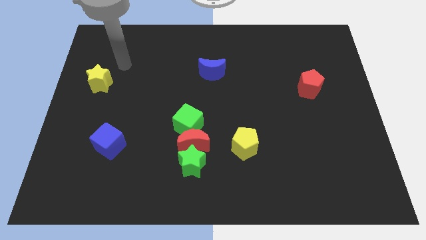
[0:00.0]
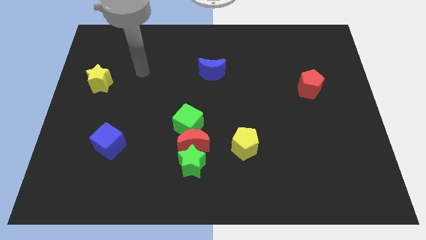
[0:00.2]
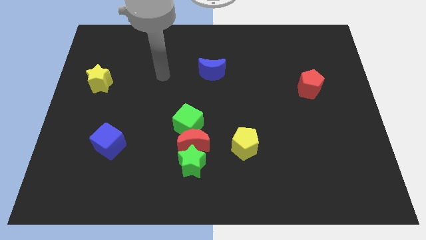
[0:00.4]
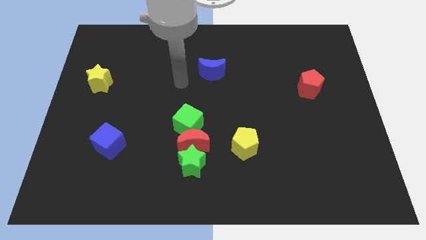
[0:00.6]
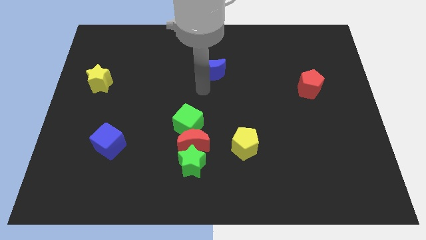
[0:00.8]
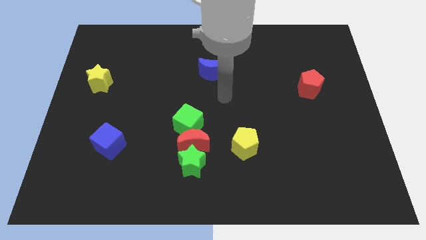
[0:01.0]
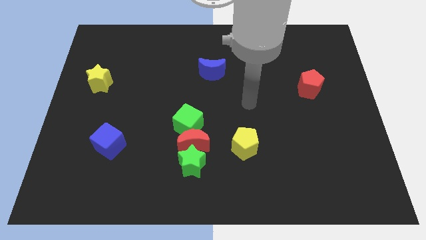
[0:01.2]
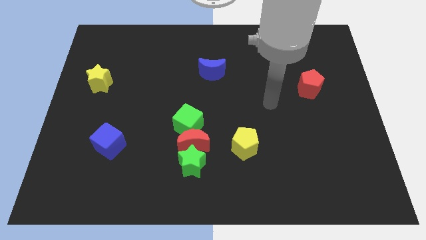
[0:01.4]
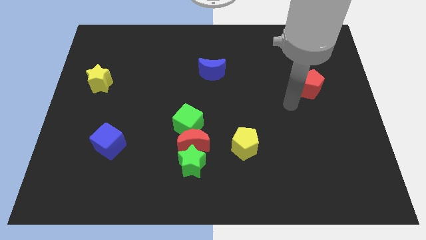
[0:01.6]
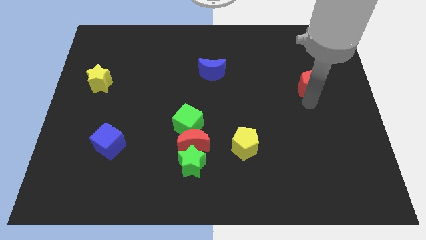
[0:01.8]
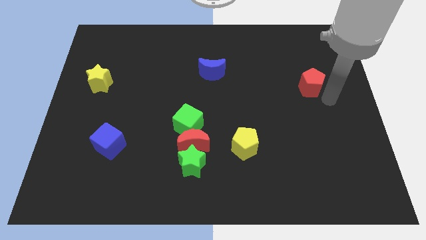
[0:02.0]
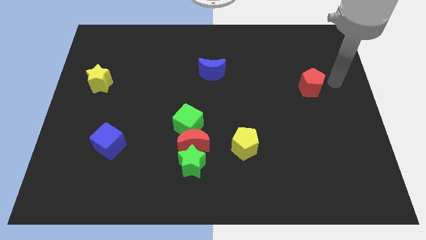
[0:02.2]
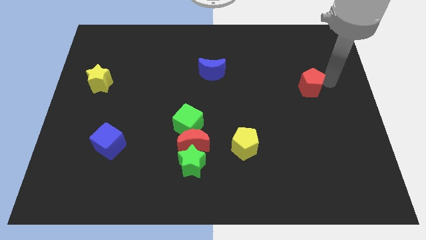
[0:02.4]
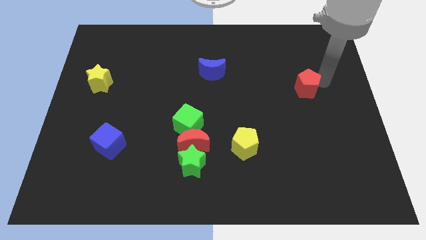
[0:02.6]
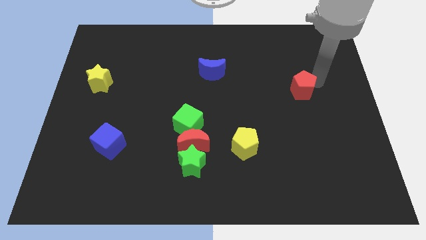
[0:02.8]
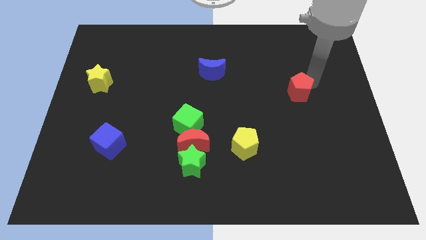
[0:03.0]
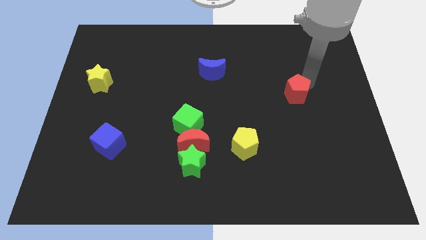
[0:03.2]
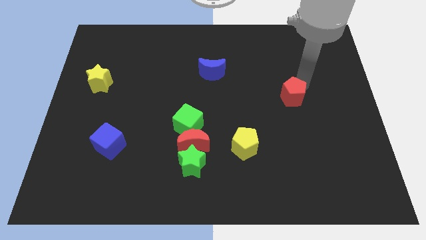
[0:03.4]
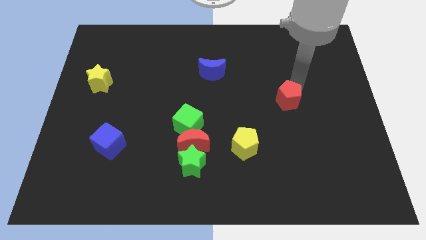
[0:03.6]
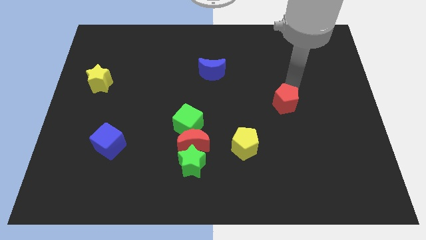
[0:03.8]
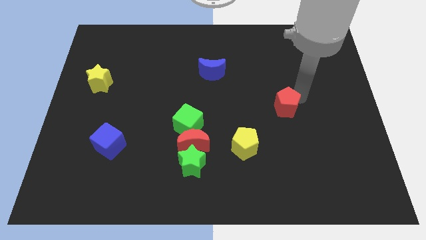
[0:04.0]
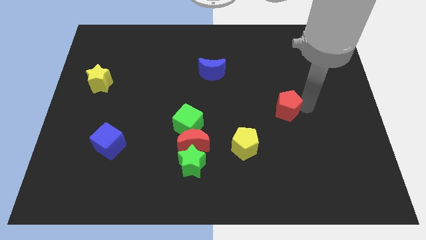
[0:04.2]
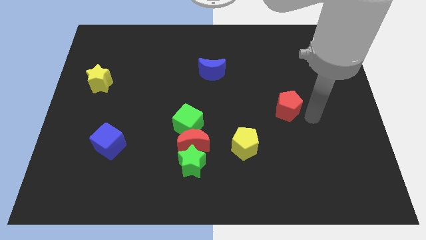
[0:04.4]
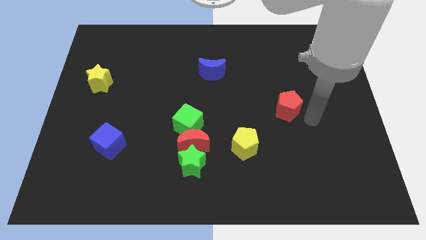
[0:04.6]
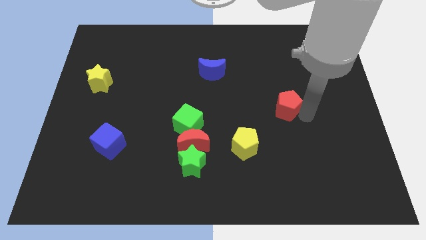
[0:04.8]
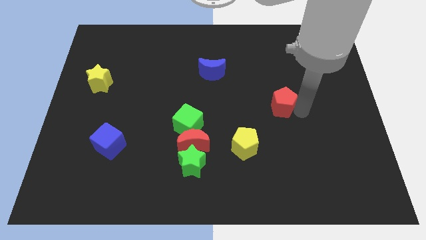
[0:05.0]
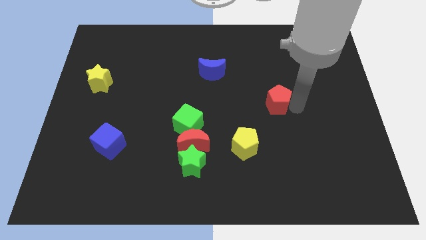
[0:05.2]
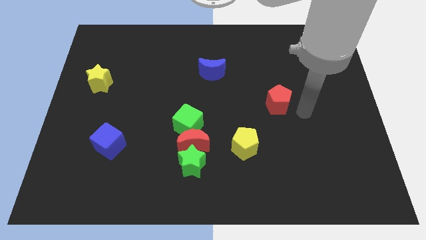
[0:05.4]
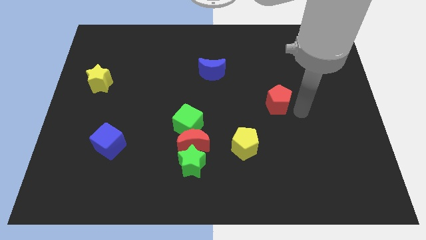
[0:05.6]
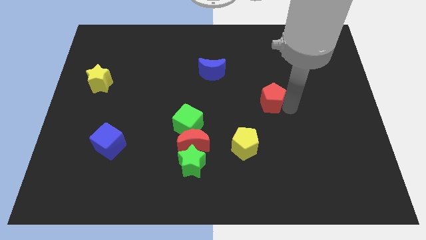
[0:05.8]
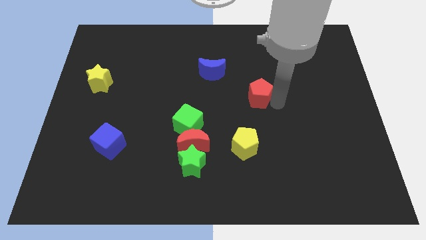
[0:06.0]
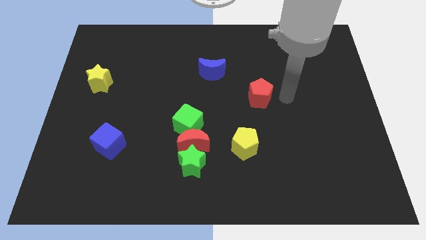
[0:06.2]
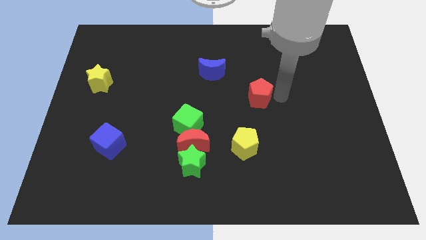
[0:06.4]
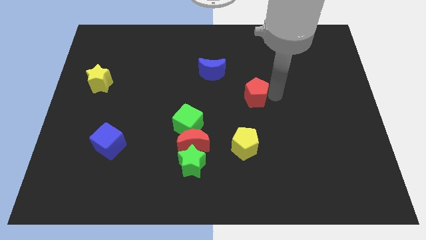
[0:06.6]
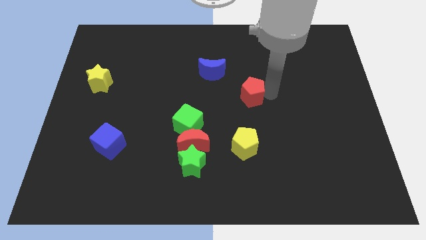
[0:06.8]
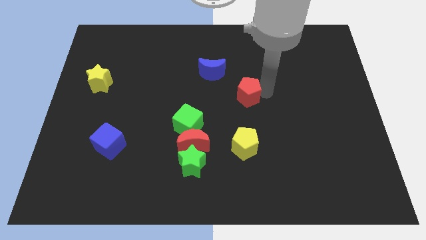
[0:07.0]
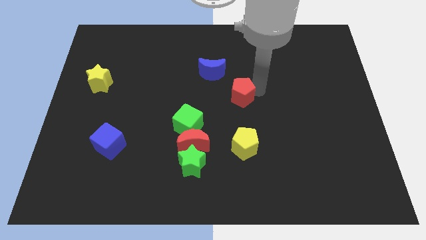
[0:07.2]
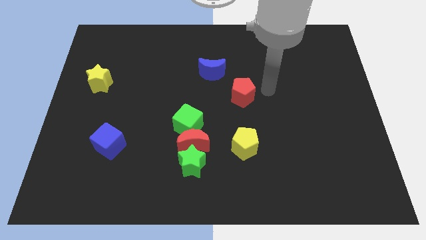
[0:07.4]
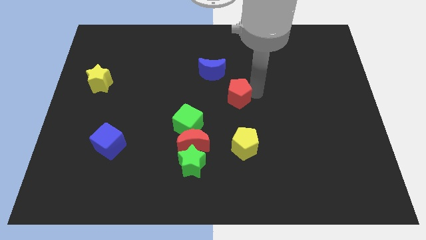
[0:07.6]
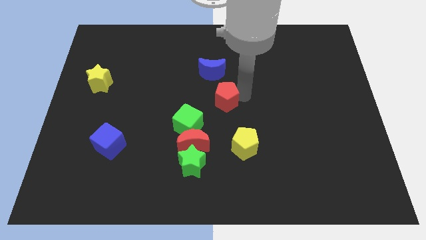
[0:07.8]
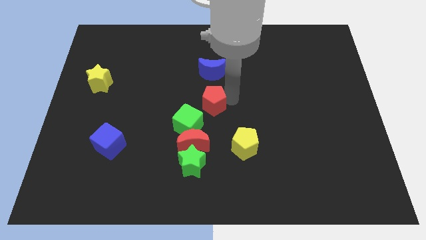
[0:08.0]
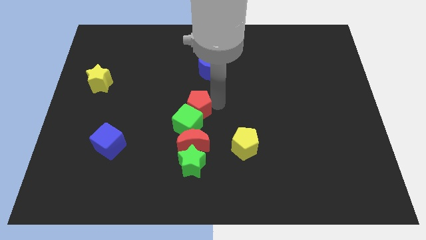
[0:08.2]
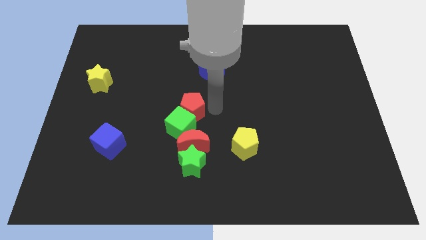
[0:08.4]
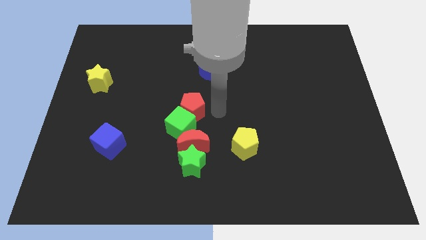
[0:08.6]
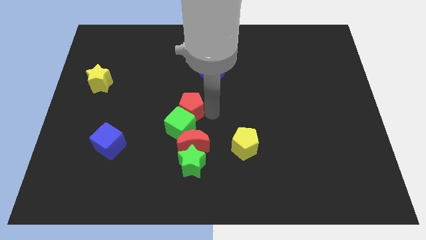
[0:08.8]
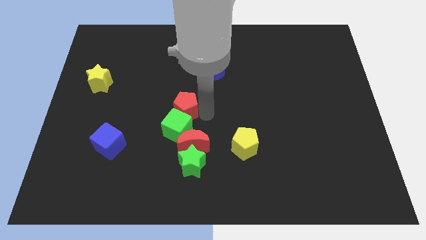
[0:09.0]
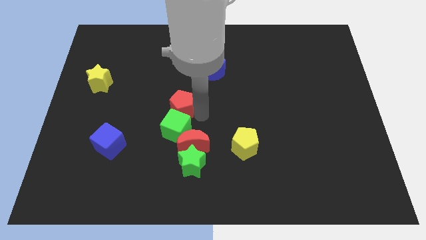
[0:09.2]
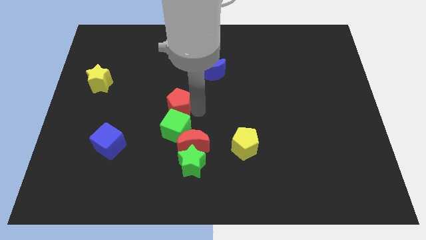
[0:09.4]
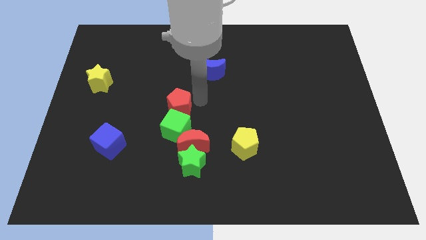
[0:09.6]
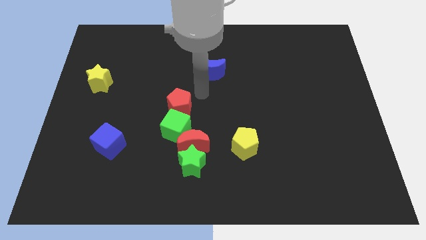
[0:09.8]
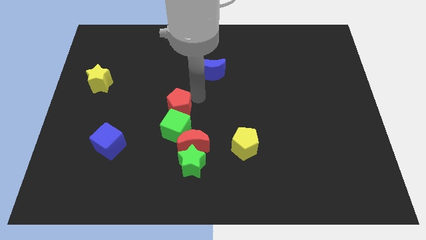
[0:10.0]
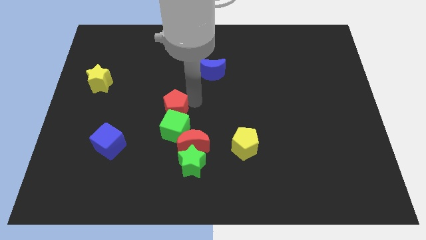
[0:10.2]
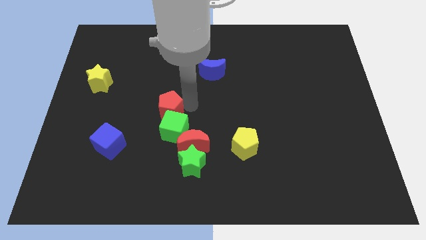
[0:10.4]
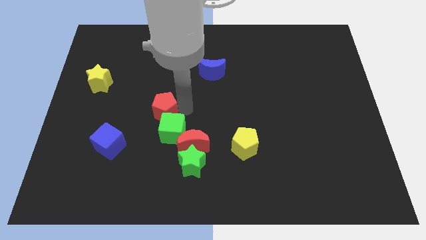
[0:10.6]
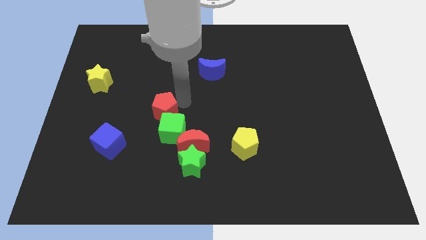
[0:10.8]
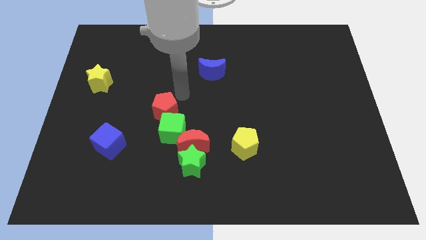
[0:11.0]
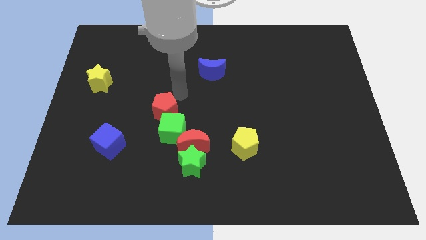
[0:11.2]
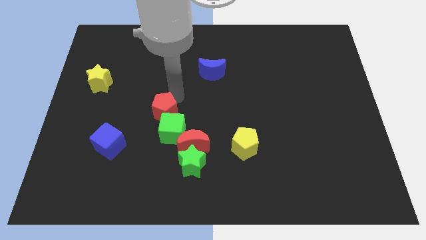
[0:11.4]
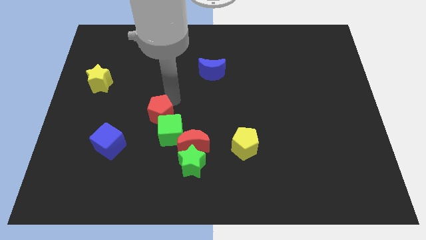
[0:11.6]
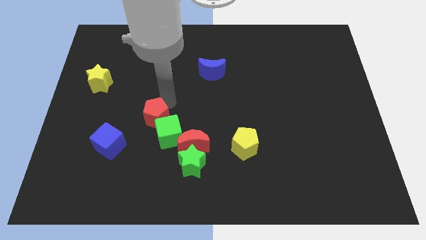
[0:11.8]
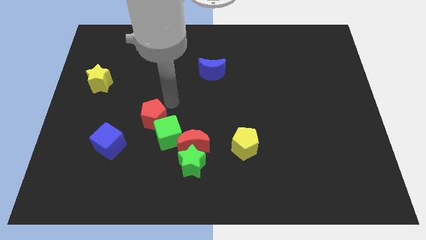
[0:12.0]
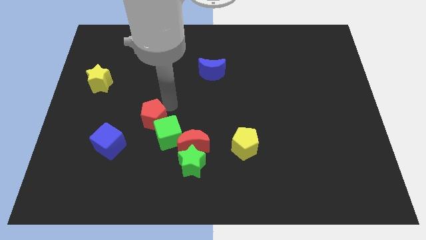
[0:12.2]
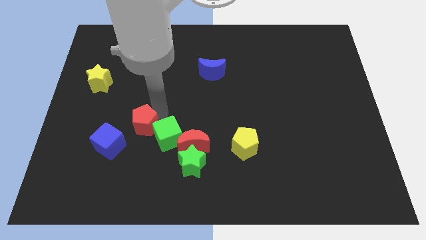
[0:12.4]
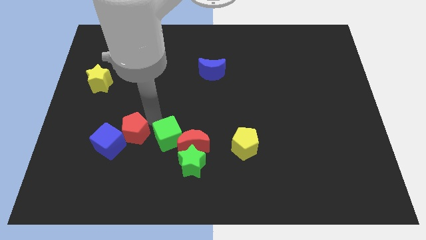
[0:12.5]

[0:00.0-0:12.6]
put the red pentagon to the blue cube

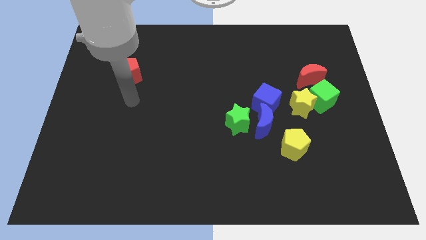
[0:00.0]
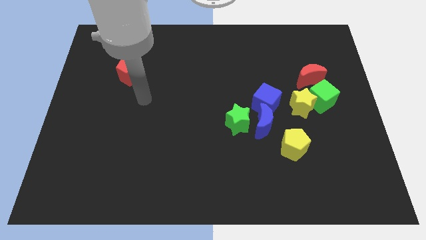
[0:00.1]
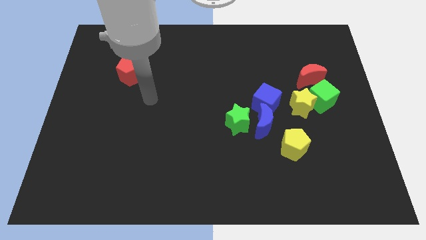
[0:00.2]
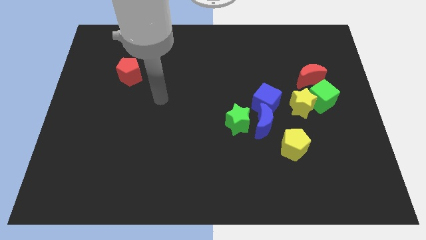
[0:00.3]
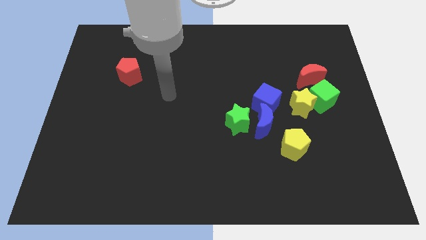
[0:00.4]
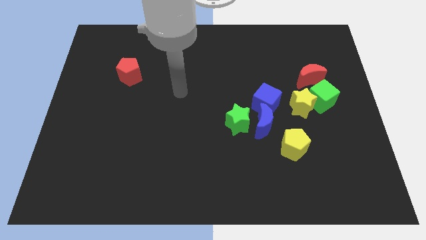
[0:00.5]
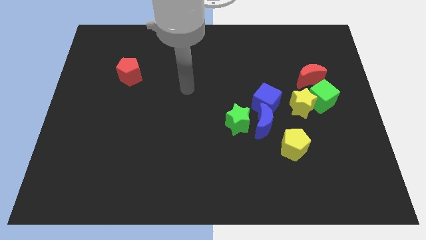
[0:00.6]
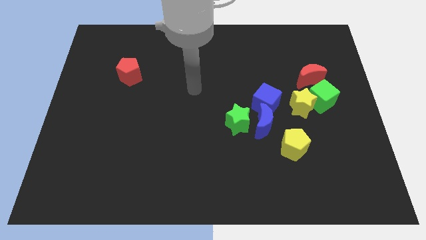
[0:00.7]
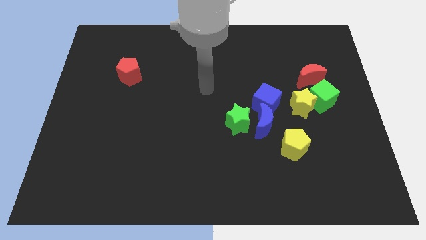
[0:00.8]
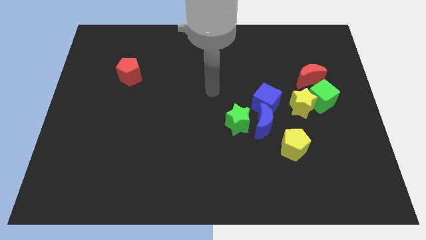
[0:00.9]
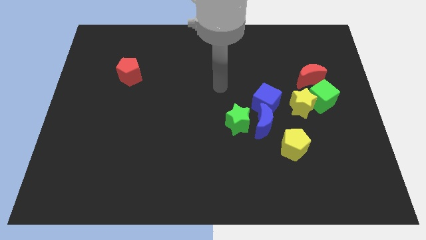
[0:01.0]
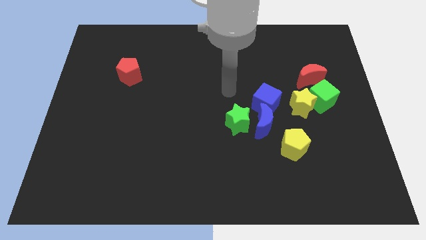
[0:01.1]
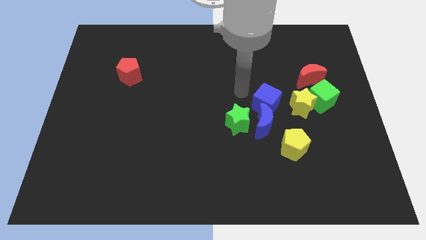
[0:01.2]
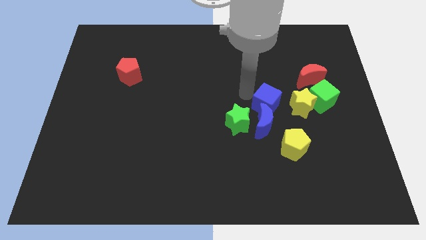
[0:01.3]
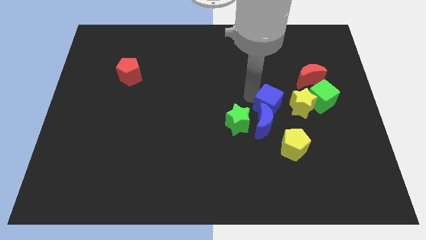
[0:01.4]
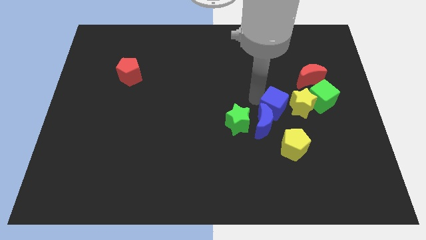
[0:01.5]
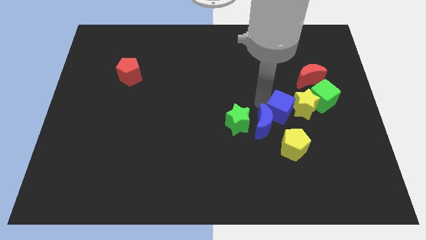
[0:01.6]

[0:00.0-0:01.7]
push the blue cube close to the yellow star
